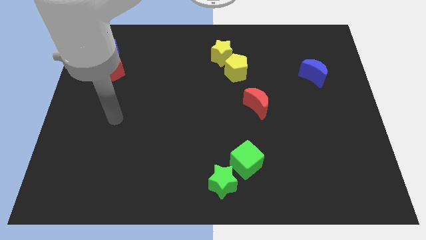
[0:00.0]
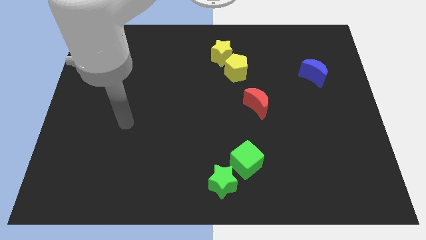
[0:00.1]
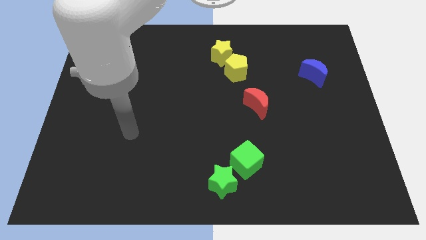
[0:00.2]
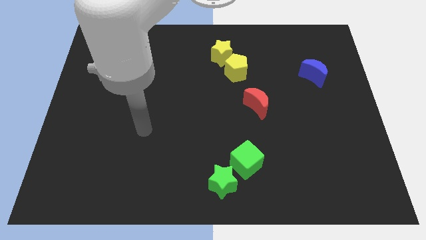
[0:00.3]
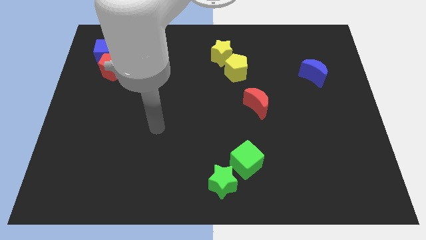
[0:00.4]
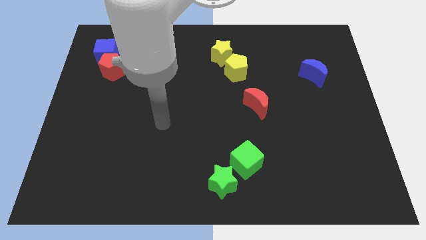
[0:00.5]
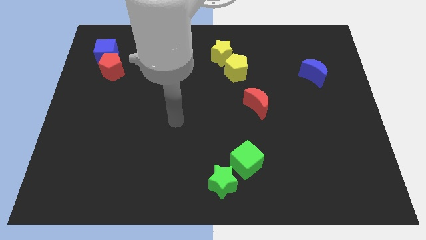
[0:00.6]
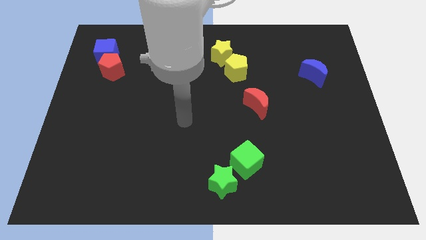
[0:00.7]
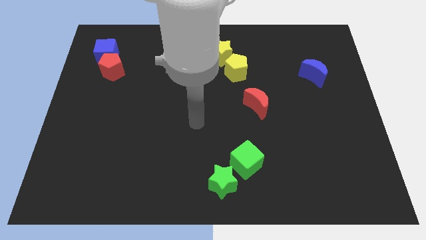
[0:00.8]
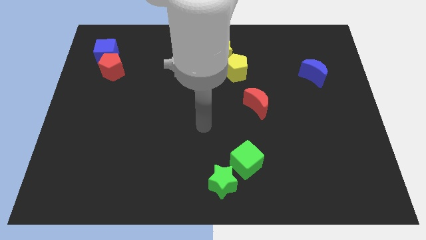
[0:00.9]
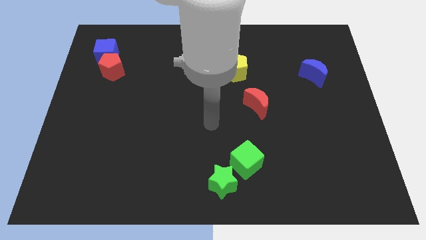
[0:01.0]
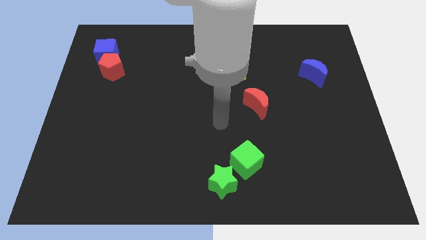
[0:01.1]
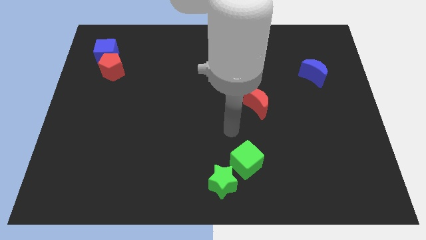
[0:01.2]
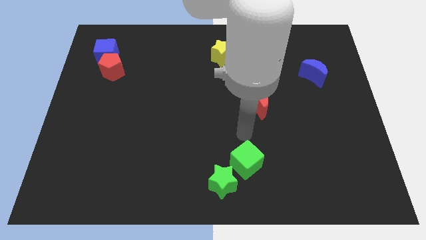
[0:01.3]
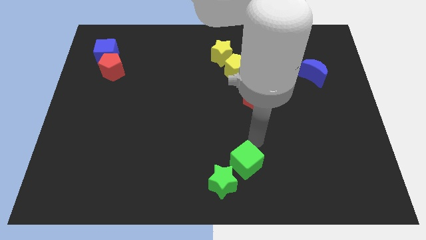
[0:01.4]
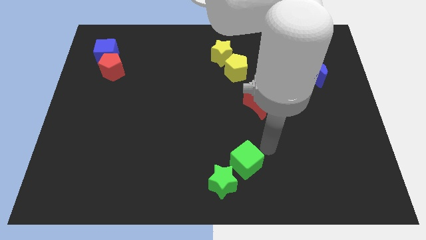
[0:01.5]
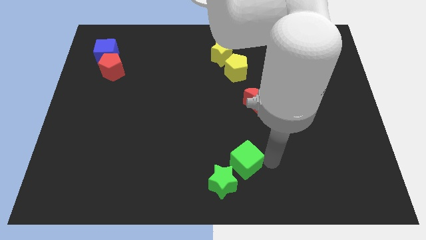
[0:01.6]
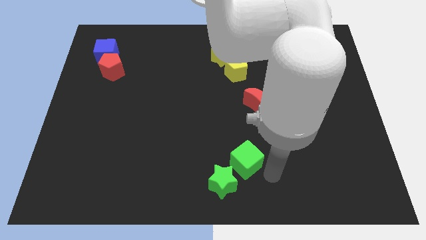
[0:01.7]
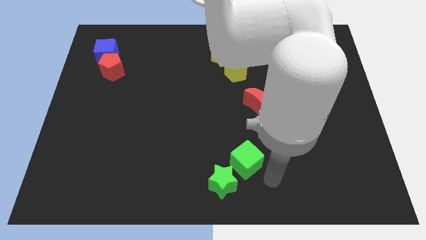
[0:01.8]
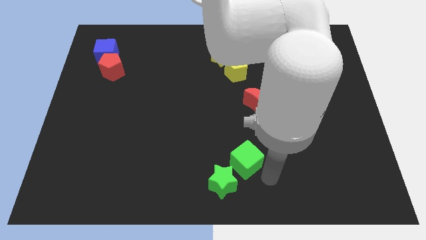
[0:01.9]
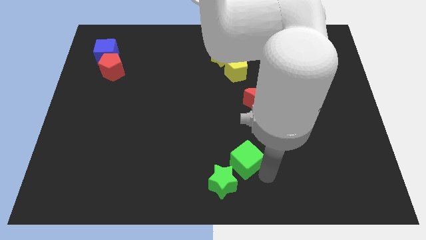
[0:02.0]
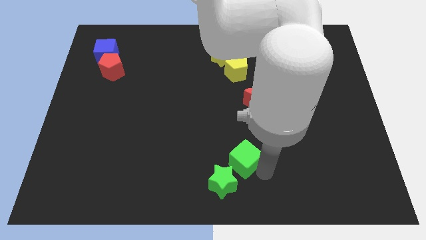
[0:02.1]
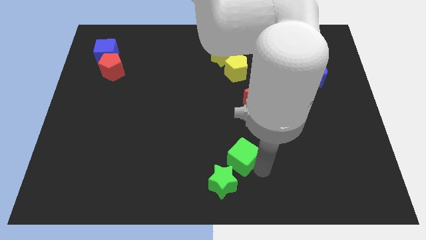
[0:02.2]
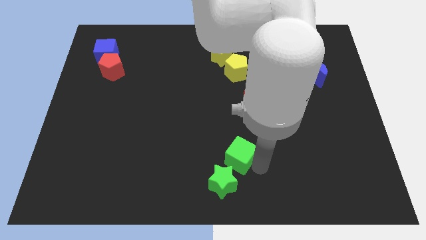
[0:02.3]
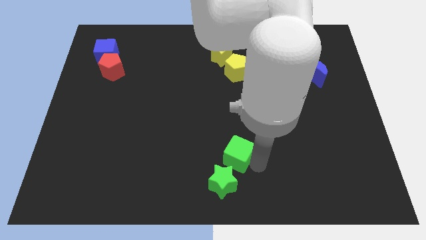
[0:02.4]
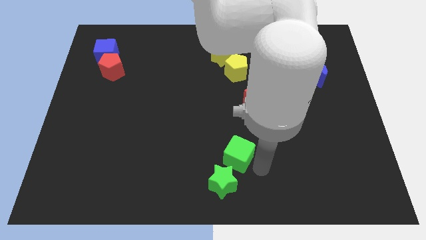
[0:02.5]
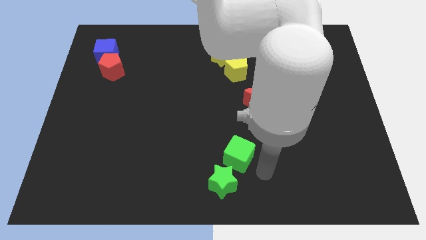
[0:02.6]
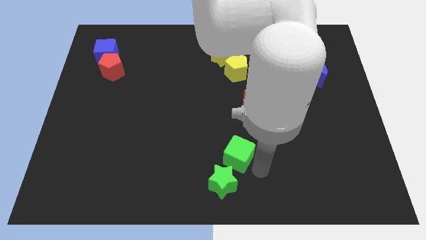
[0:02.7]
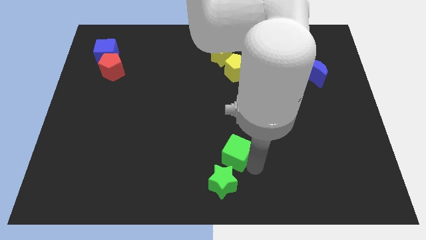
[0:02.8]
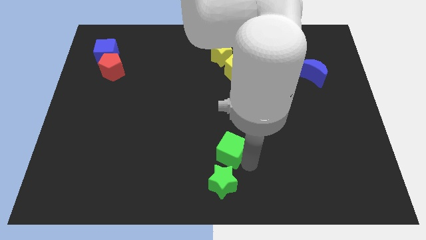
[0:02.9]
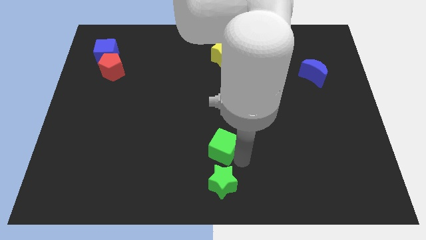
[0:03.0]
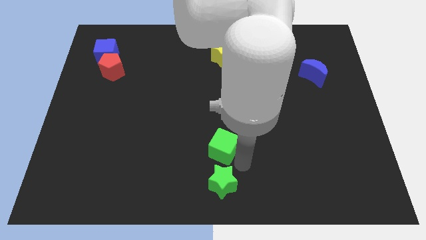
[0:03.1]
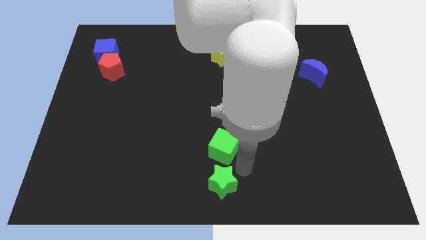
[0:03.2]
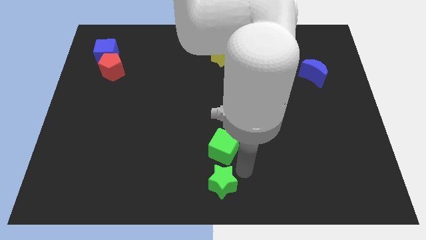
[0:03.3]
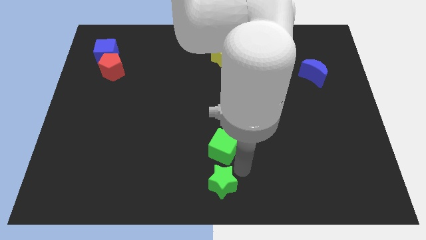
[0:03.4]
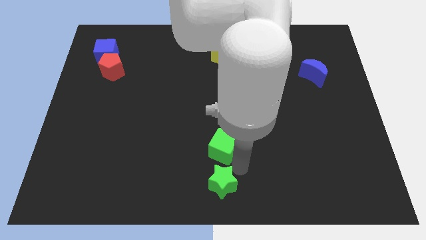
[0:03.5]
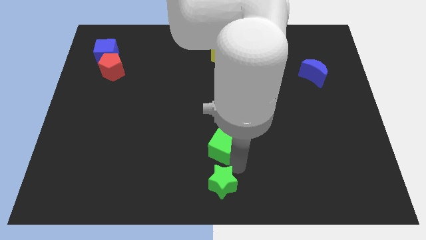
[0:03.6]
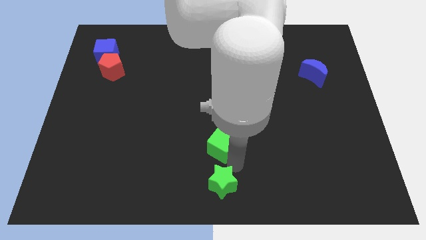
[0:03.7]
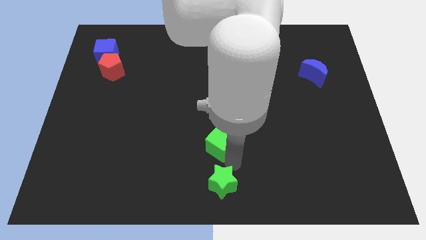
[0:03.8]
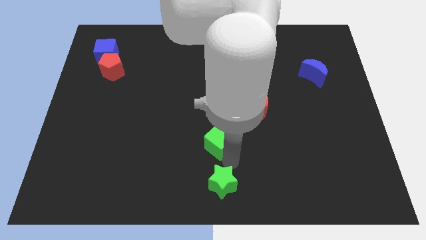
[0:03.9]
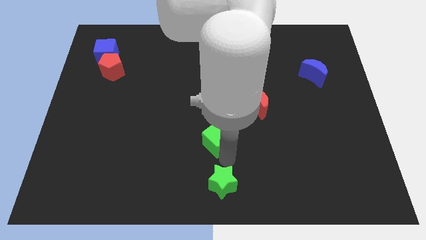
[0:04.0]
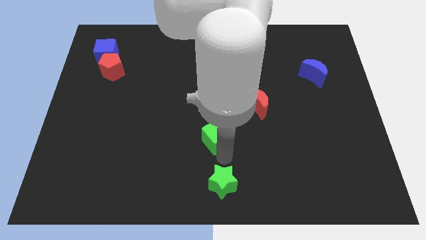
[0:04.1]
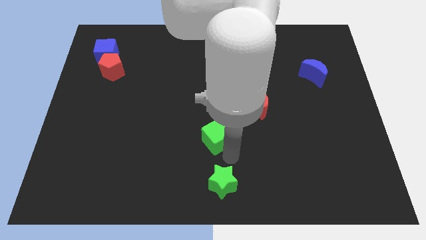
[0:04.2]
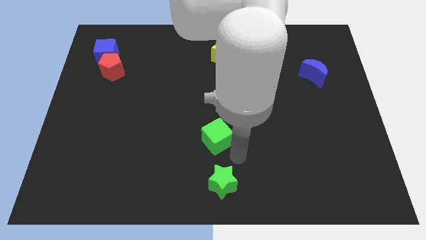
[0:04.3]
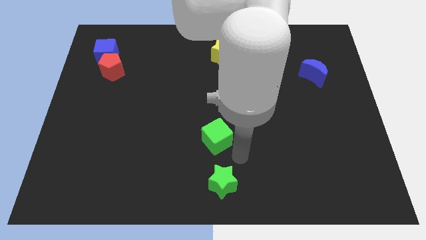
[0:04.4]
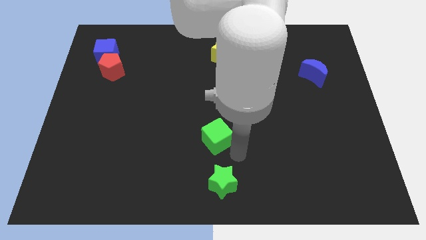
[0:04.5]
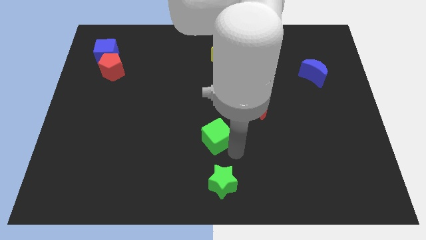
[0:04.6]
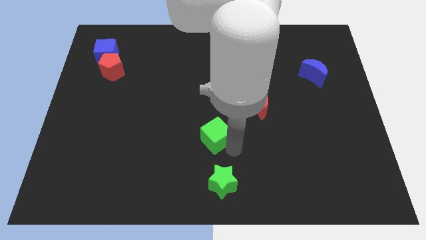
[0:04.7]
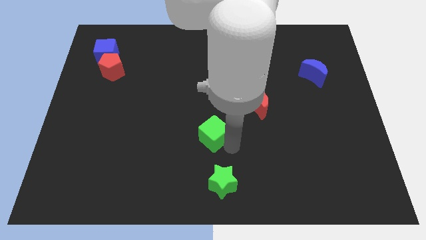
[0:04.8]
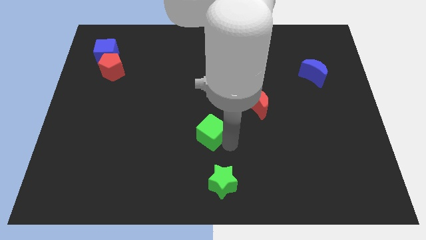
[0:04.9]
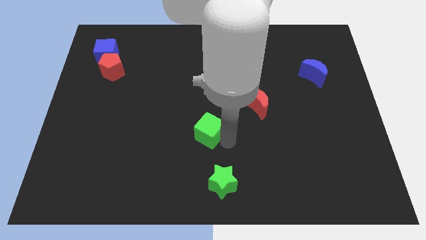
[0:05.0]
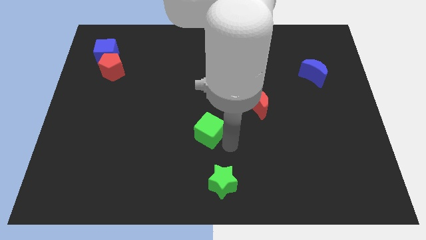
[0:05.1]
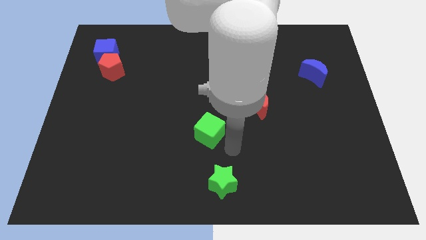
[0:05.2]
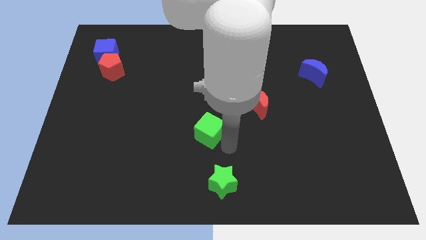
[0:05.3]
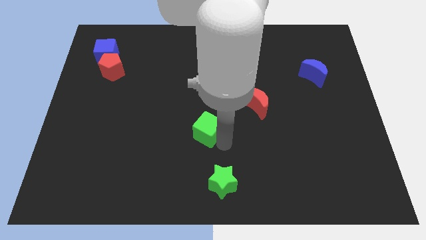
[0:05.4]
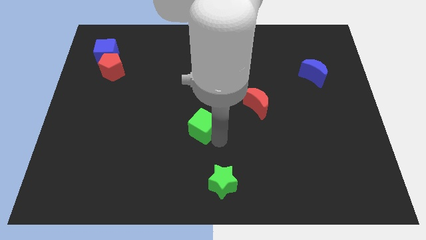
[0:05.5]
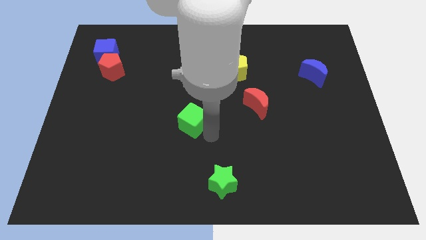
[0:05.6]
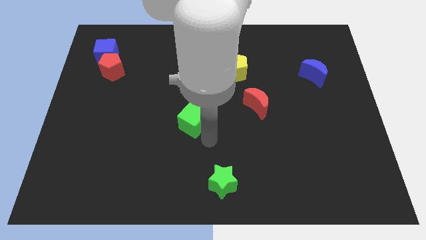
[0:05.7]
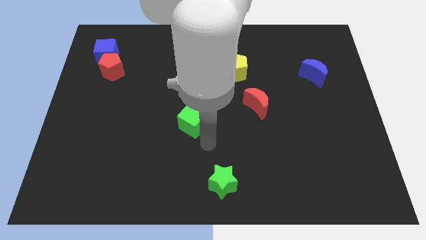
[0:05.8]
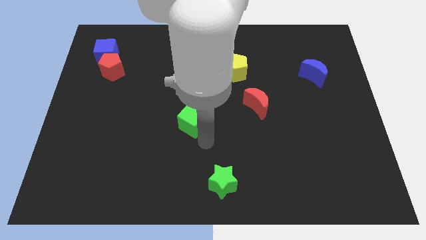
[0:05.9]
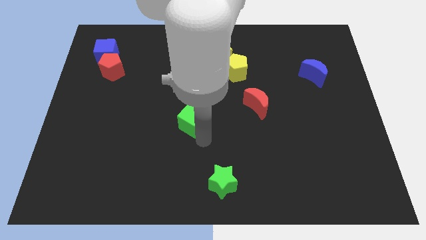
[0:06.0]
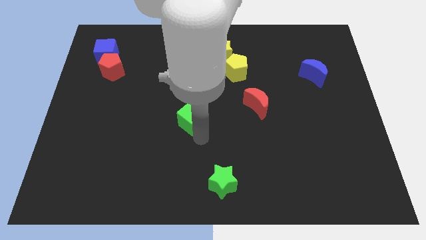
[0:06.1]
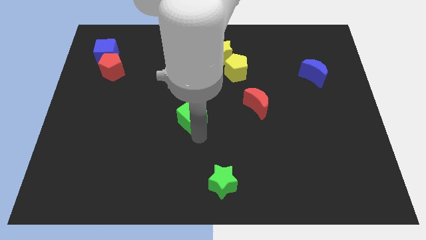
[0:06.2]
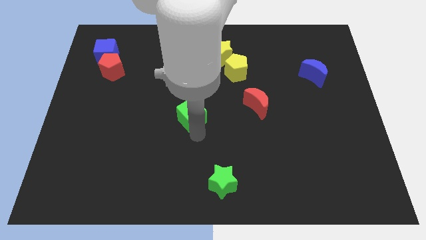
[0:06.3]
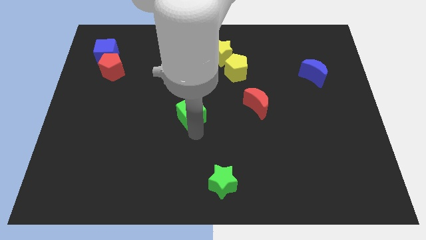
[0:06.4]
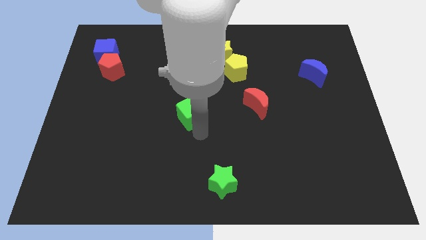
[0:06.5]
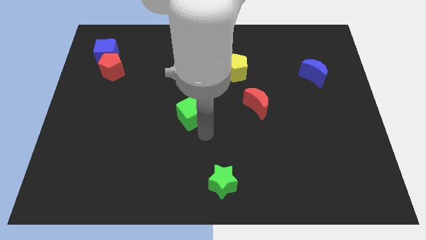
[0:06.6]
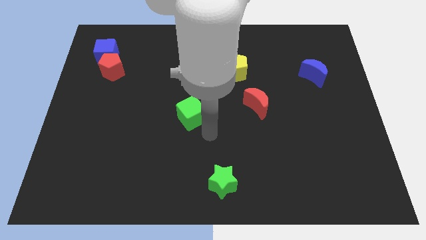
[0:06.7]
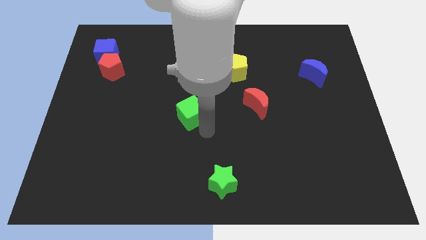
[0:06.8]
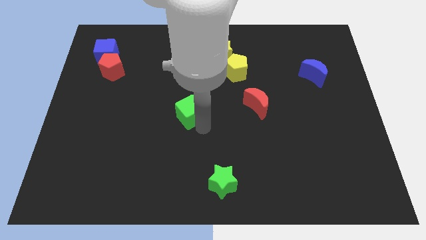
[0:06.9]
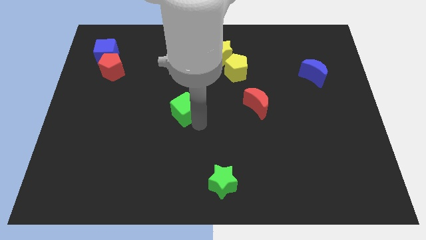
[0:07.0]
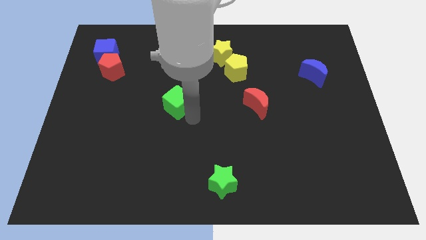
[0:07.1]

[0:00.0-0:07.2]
push the green cube diagonally upwards and to the left

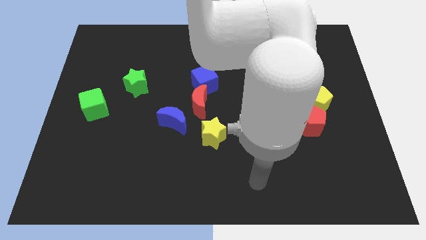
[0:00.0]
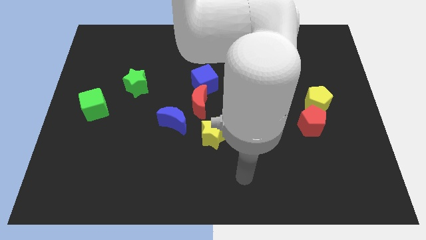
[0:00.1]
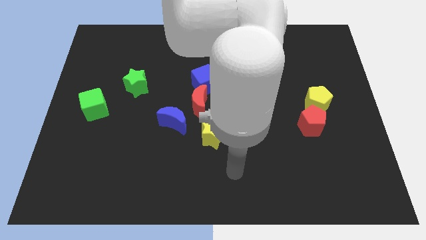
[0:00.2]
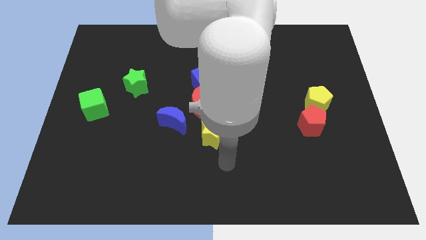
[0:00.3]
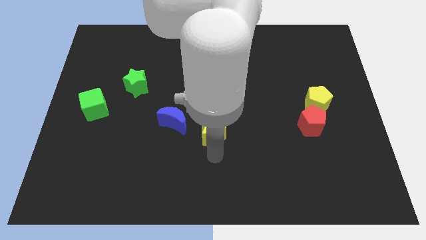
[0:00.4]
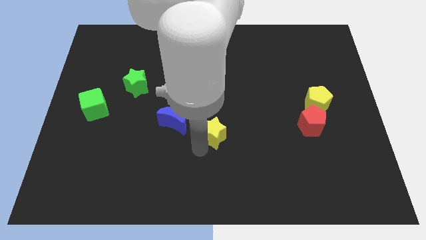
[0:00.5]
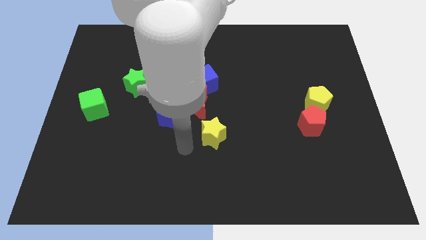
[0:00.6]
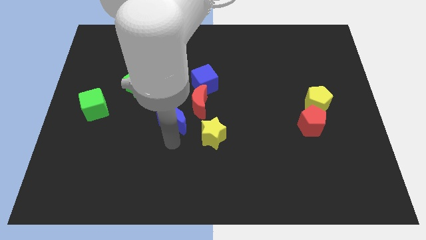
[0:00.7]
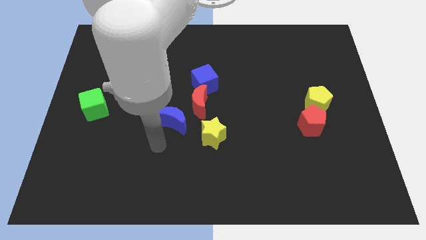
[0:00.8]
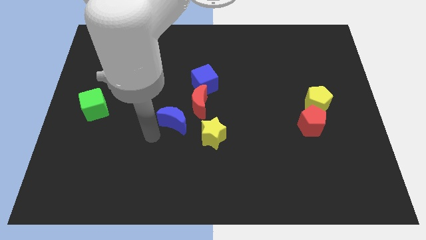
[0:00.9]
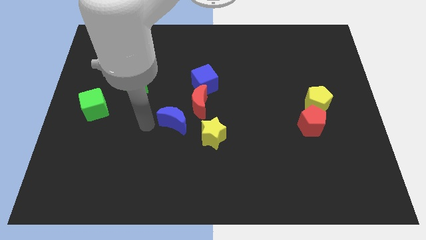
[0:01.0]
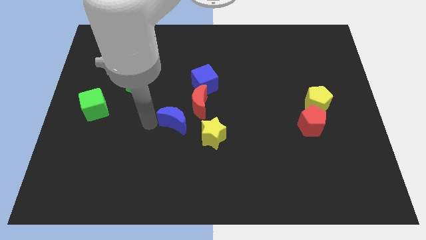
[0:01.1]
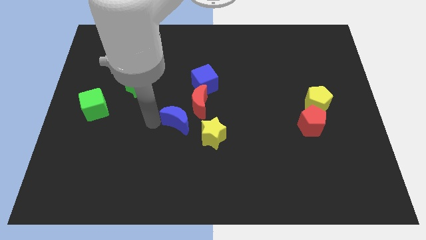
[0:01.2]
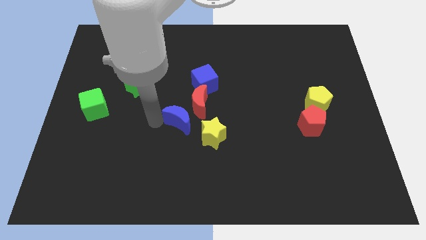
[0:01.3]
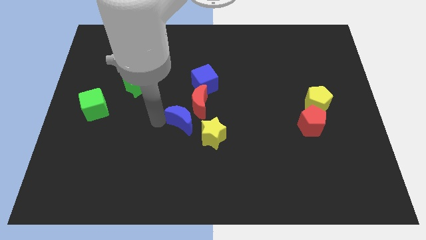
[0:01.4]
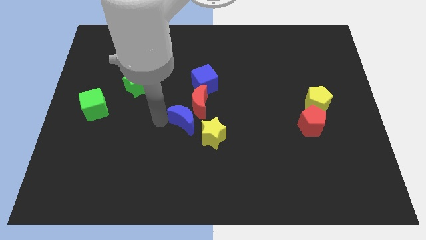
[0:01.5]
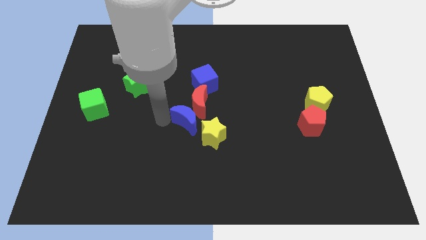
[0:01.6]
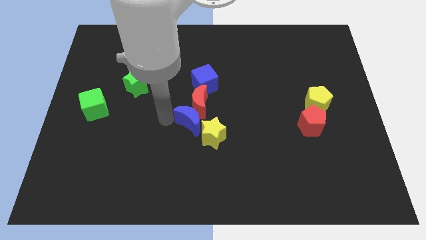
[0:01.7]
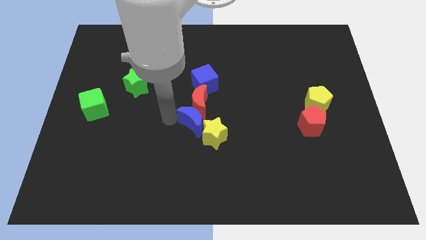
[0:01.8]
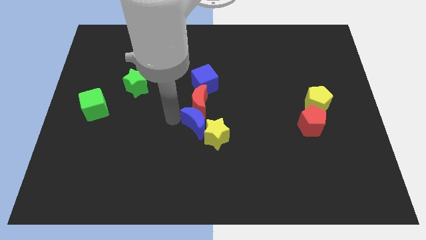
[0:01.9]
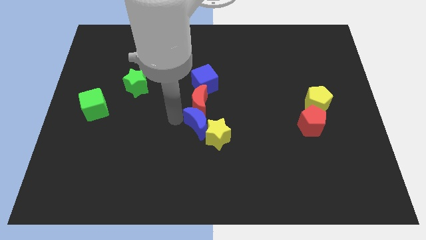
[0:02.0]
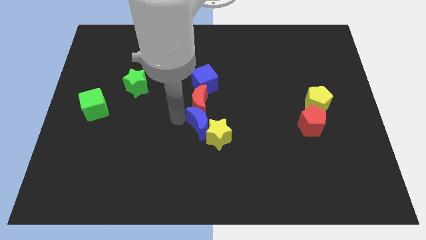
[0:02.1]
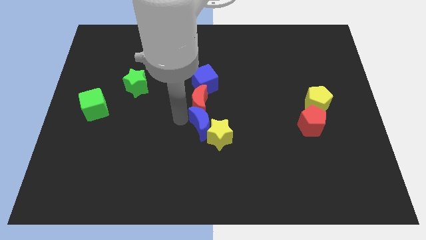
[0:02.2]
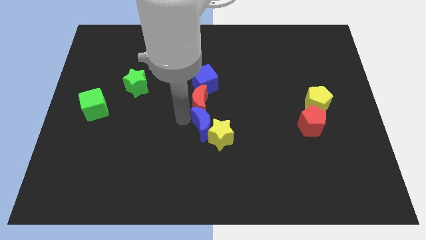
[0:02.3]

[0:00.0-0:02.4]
push the blue moon a little bit right
